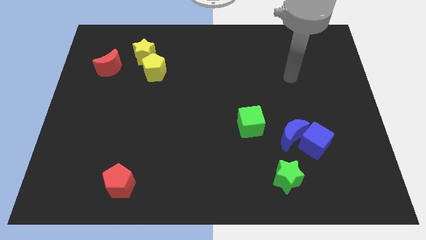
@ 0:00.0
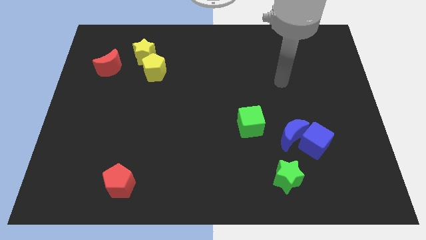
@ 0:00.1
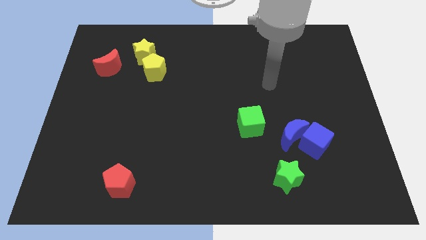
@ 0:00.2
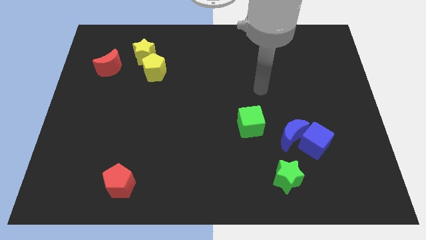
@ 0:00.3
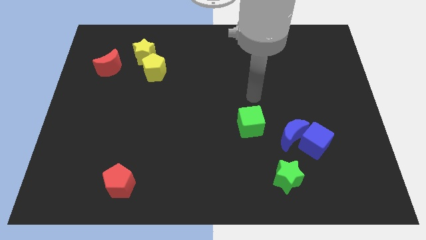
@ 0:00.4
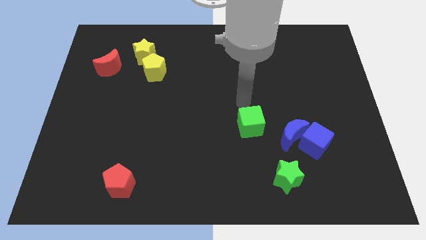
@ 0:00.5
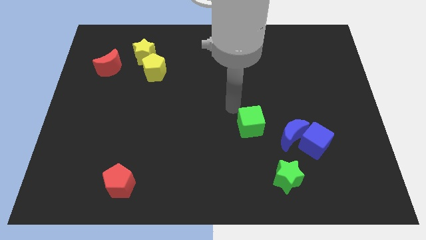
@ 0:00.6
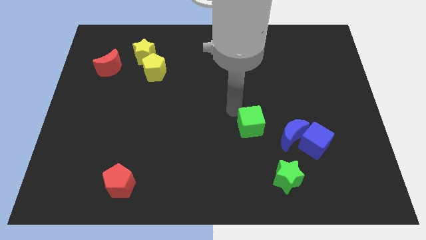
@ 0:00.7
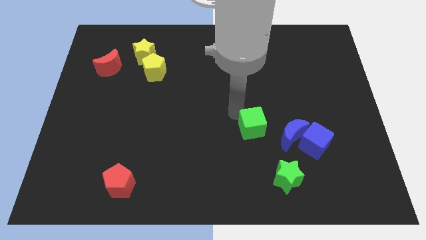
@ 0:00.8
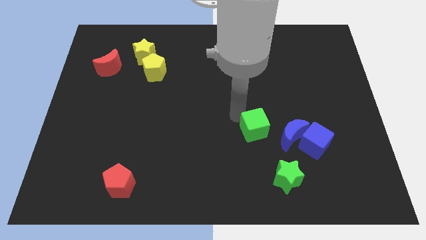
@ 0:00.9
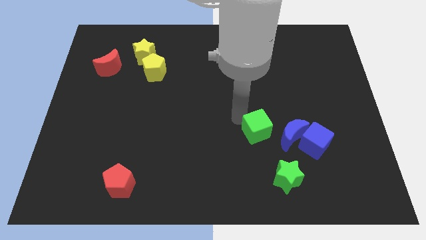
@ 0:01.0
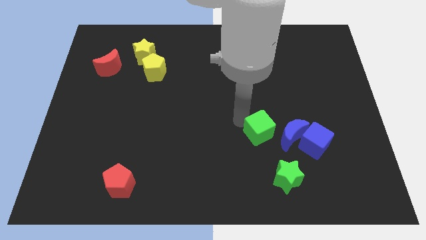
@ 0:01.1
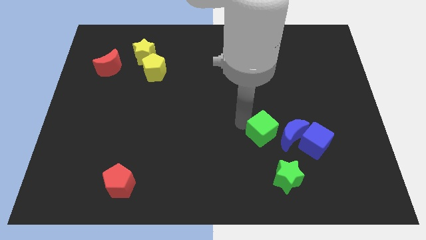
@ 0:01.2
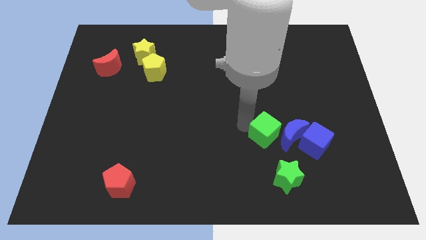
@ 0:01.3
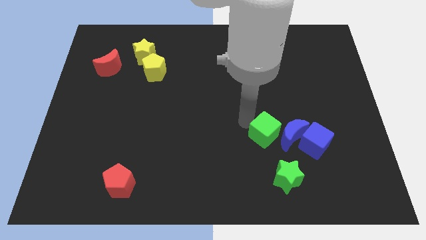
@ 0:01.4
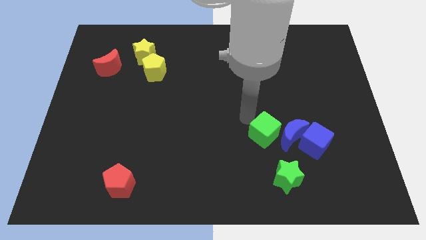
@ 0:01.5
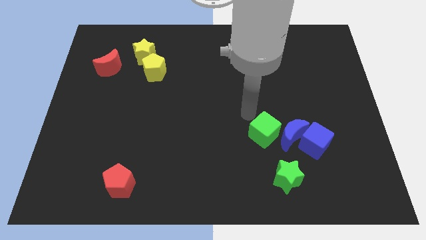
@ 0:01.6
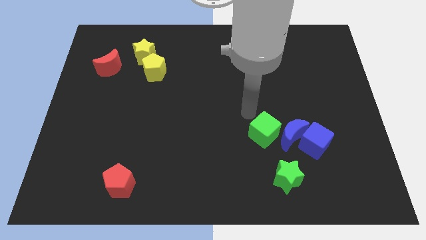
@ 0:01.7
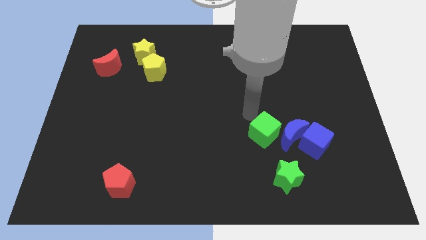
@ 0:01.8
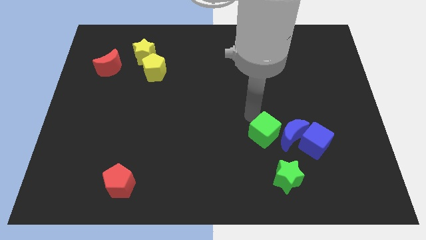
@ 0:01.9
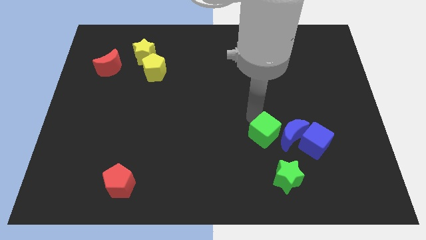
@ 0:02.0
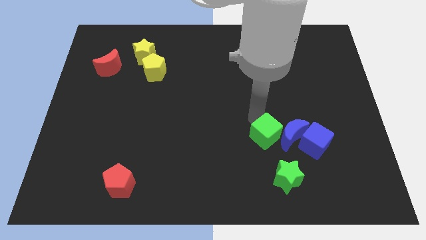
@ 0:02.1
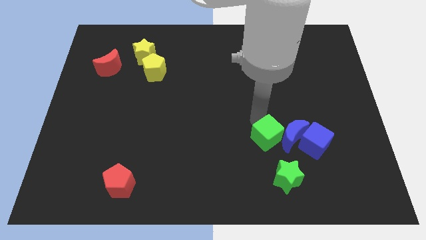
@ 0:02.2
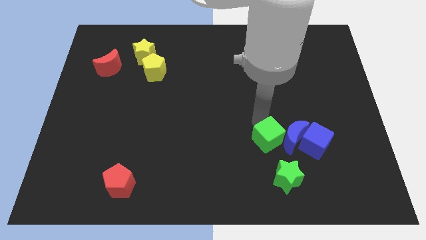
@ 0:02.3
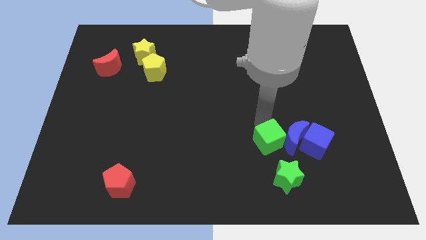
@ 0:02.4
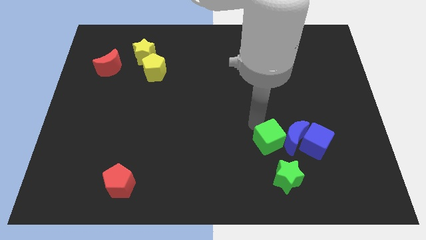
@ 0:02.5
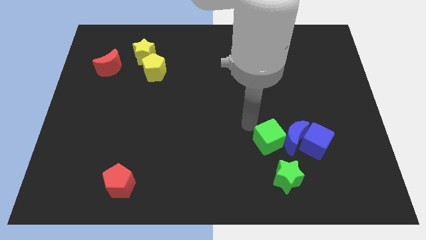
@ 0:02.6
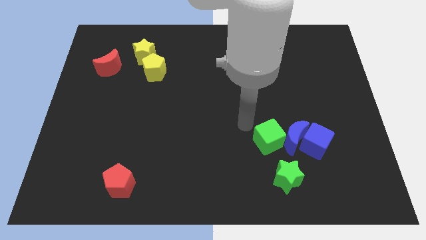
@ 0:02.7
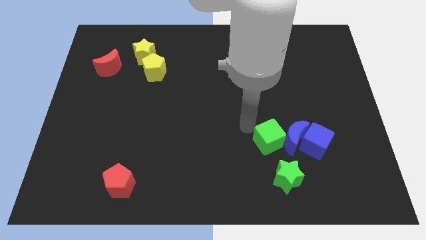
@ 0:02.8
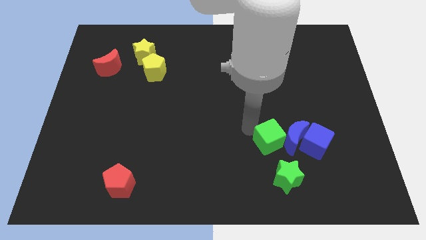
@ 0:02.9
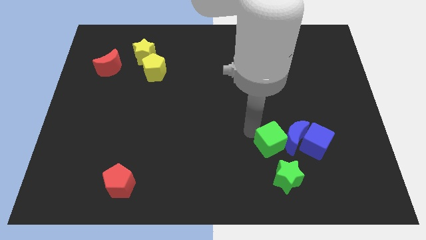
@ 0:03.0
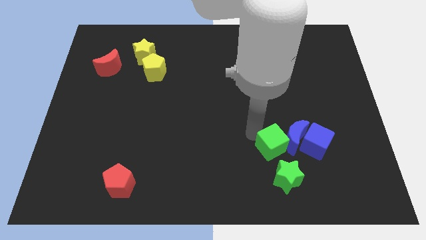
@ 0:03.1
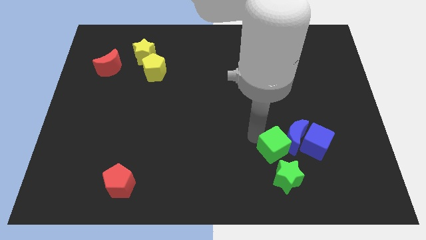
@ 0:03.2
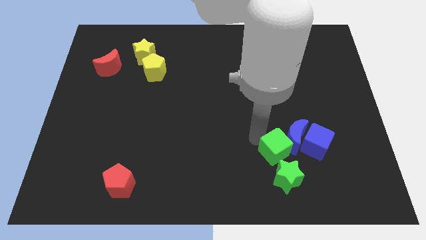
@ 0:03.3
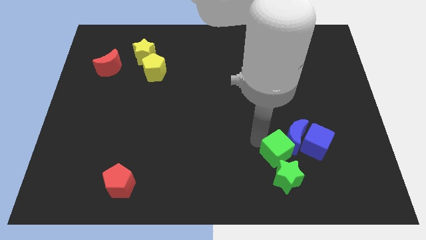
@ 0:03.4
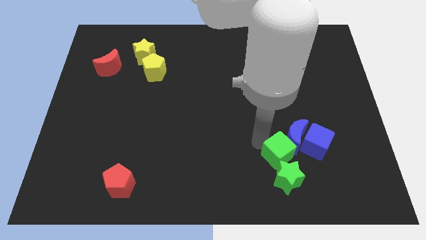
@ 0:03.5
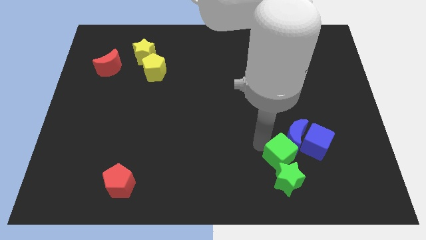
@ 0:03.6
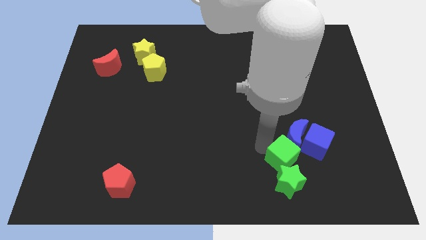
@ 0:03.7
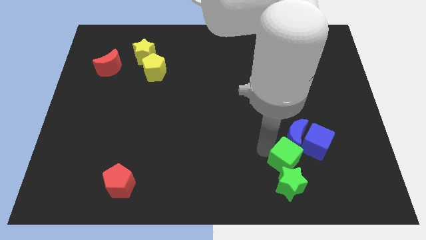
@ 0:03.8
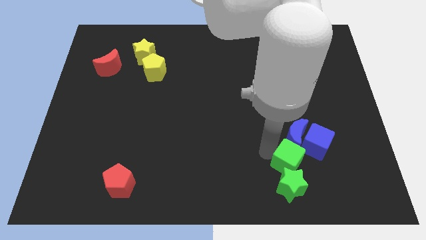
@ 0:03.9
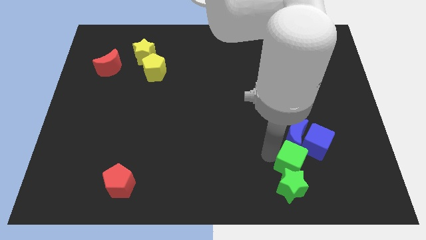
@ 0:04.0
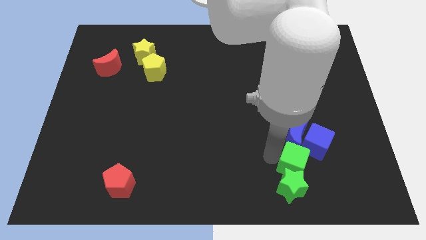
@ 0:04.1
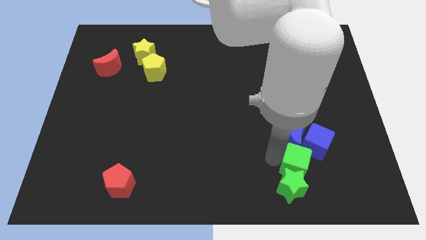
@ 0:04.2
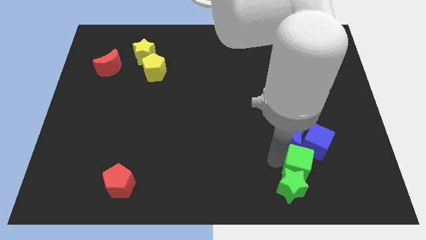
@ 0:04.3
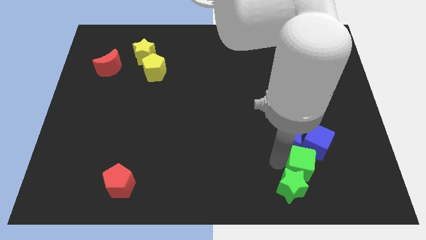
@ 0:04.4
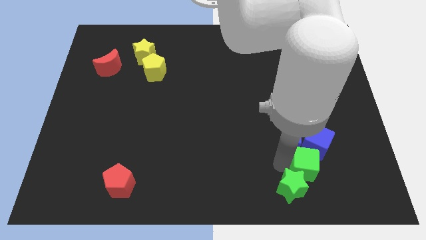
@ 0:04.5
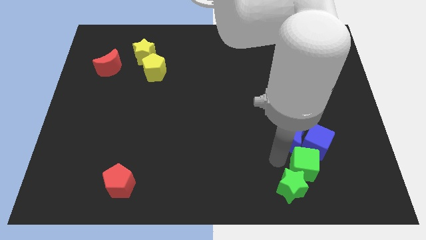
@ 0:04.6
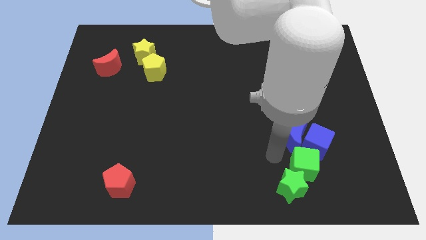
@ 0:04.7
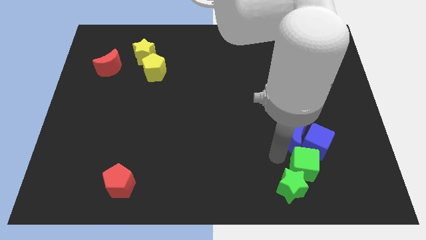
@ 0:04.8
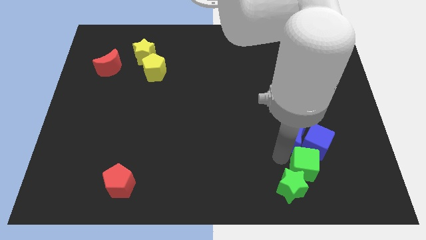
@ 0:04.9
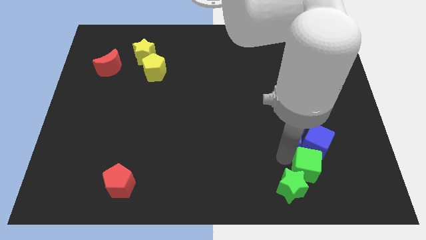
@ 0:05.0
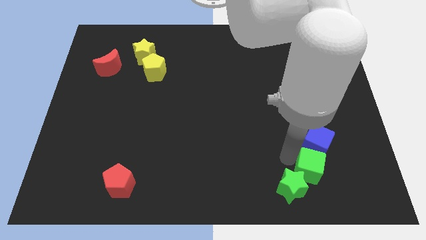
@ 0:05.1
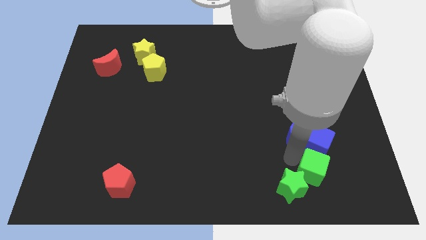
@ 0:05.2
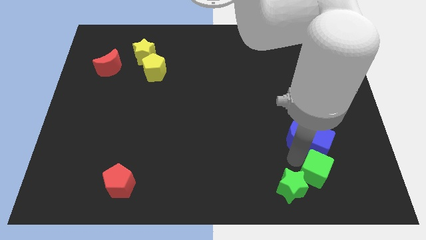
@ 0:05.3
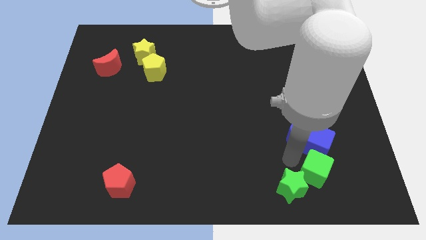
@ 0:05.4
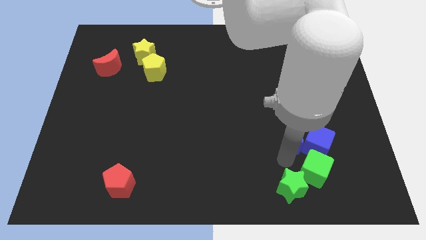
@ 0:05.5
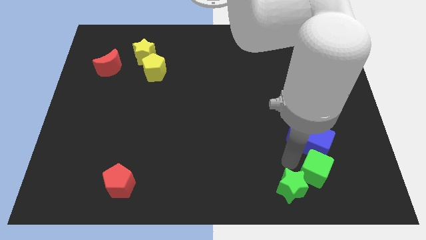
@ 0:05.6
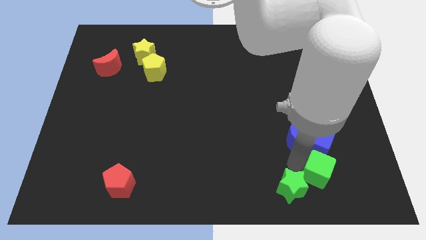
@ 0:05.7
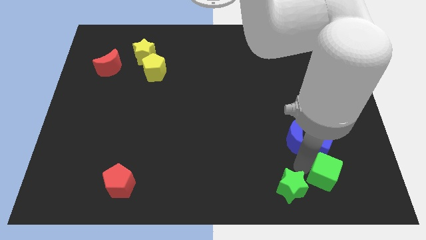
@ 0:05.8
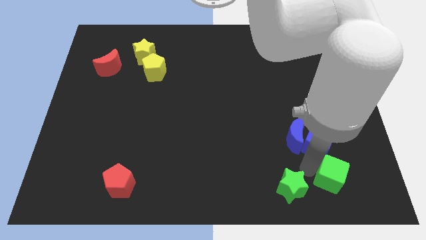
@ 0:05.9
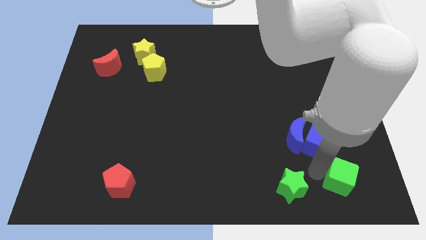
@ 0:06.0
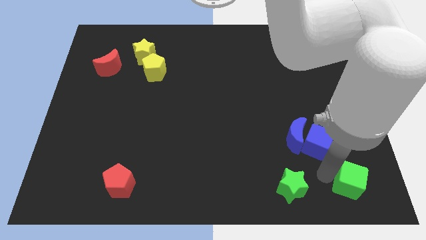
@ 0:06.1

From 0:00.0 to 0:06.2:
slide the green cube to the bottom right corner
